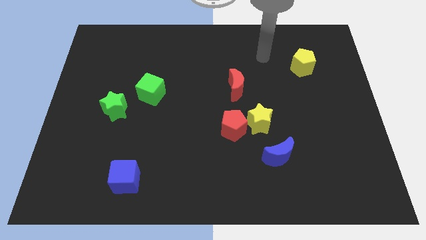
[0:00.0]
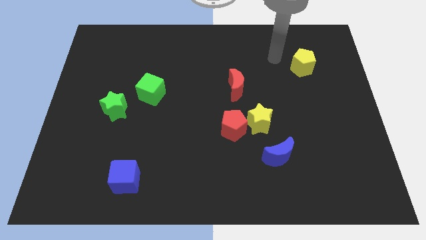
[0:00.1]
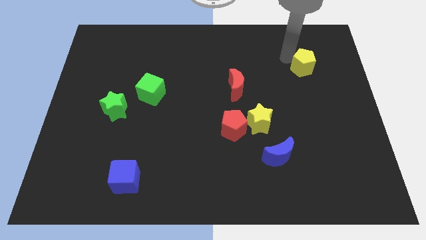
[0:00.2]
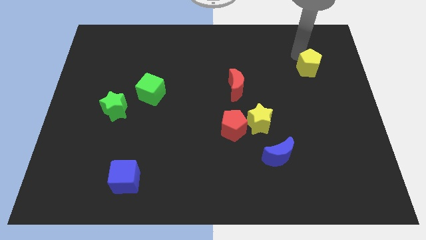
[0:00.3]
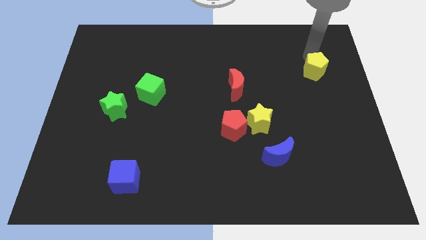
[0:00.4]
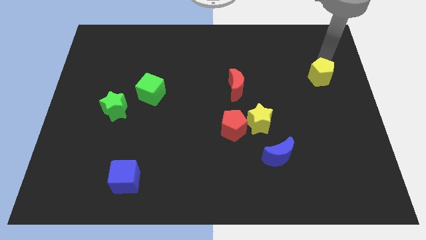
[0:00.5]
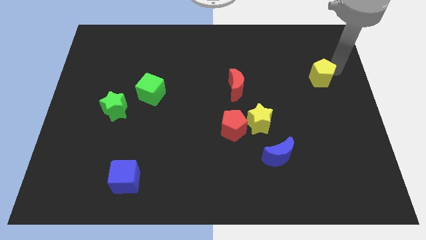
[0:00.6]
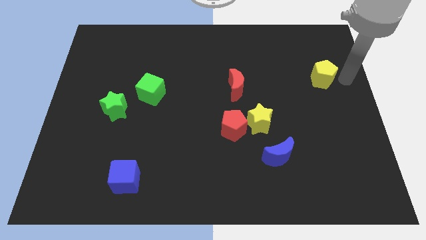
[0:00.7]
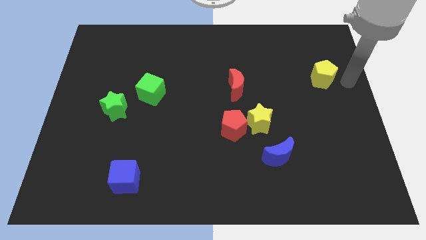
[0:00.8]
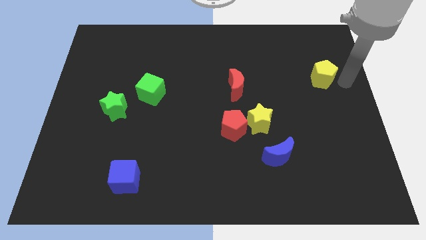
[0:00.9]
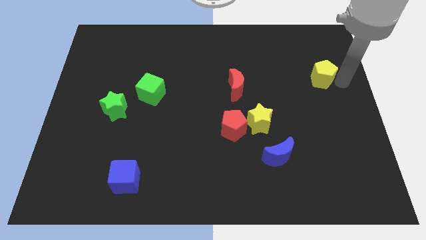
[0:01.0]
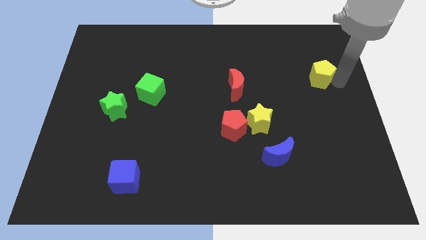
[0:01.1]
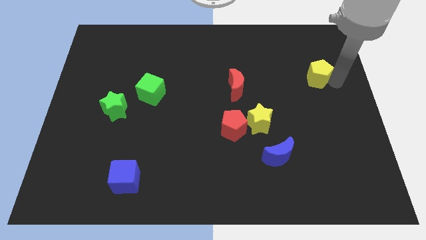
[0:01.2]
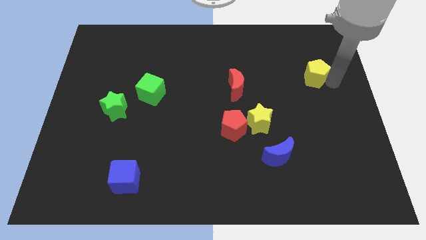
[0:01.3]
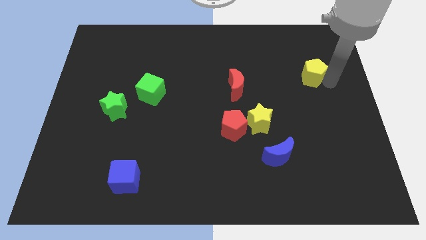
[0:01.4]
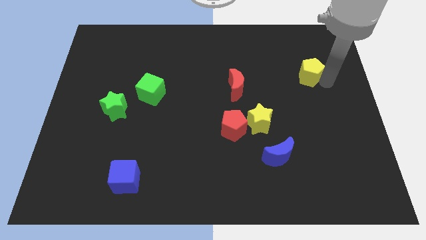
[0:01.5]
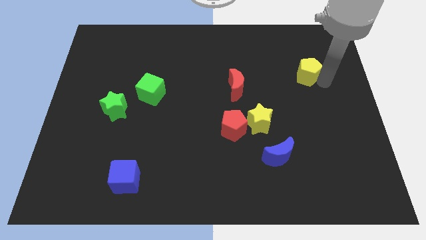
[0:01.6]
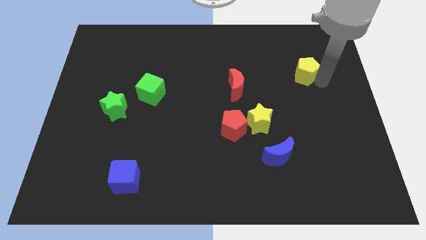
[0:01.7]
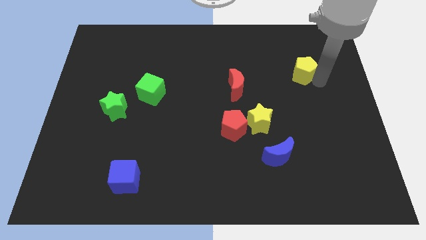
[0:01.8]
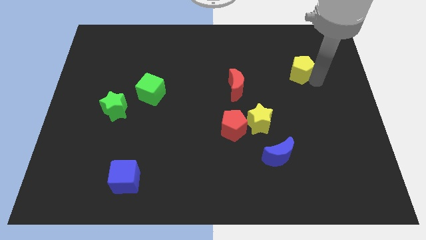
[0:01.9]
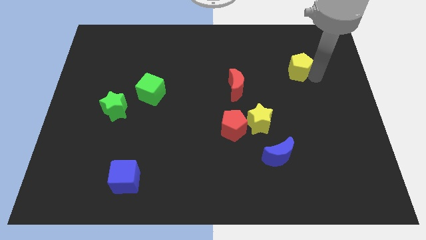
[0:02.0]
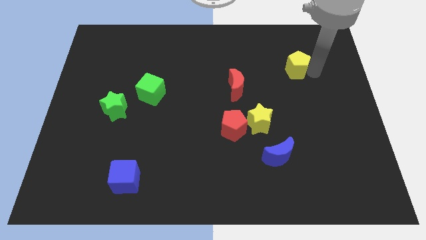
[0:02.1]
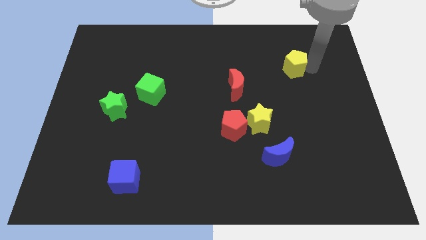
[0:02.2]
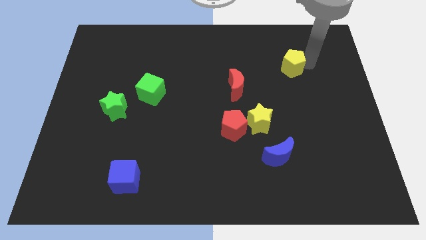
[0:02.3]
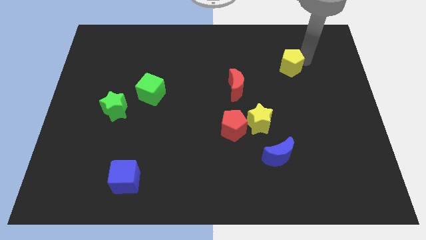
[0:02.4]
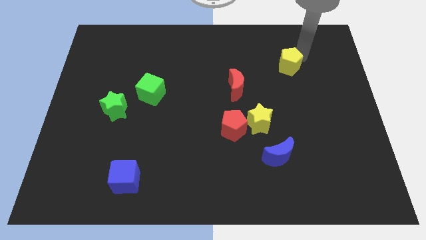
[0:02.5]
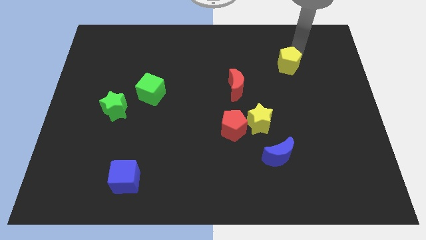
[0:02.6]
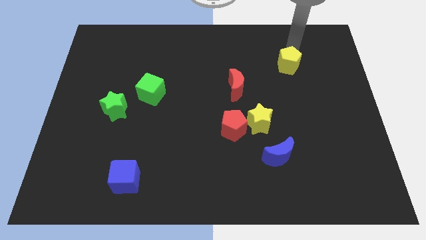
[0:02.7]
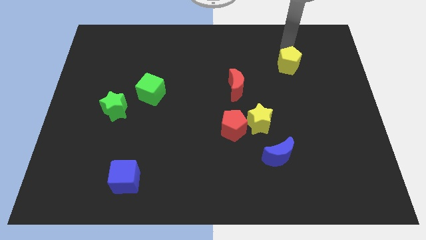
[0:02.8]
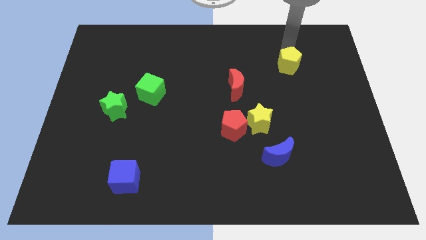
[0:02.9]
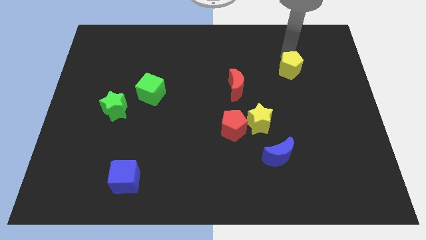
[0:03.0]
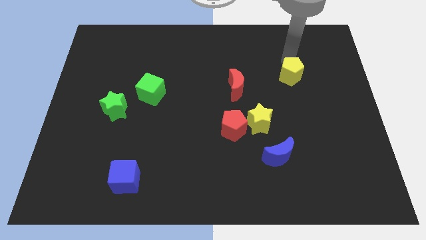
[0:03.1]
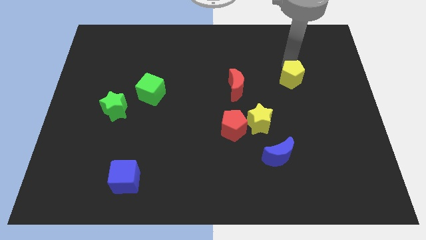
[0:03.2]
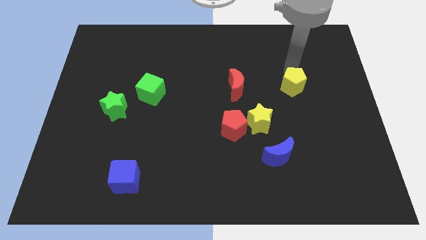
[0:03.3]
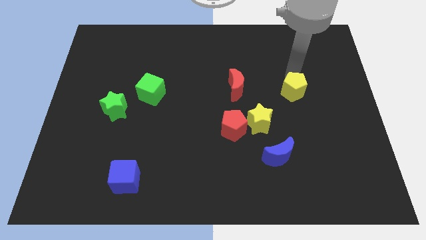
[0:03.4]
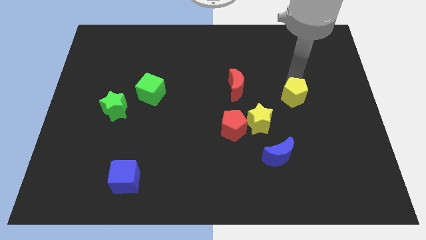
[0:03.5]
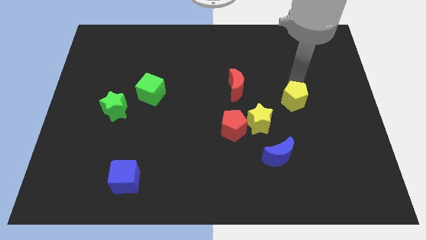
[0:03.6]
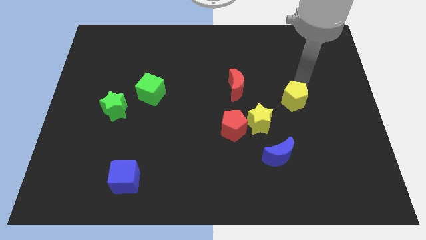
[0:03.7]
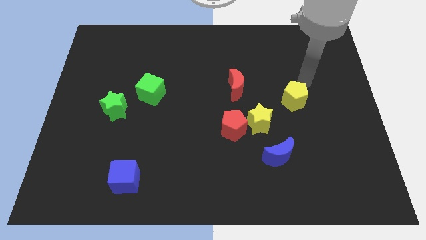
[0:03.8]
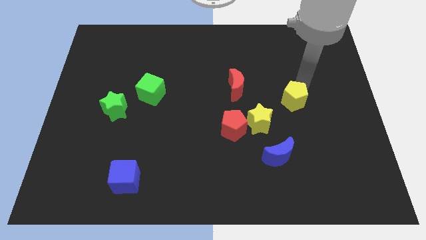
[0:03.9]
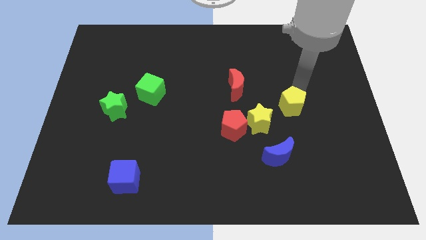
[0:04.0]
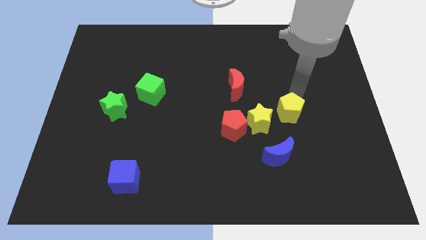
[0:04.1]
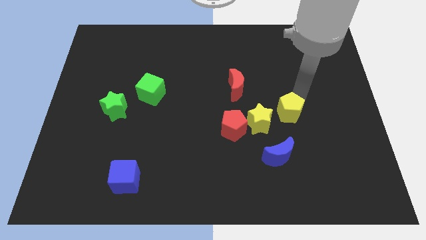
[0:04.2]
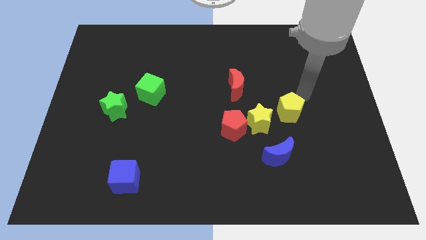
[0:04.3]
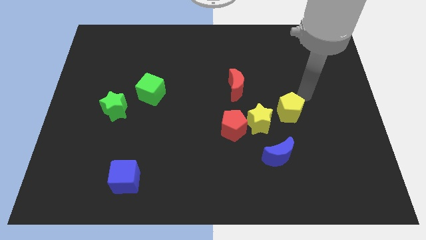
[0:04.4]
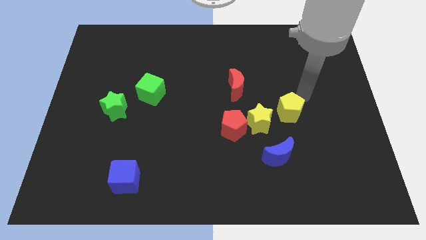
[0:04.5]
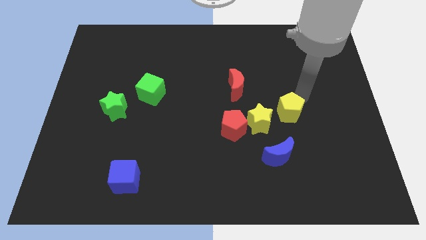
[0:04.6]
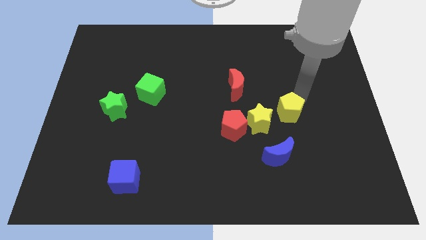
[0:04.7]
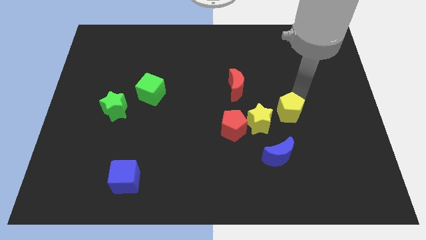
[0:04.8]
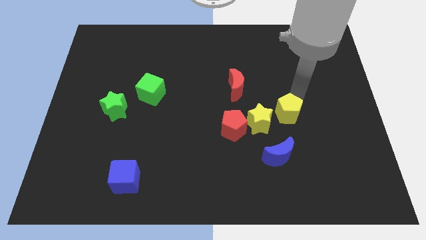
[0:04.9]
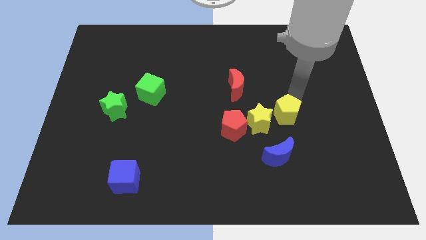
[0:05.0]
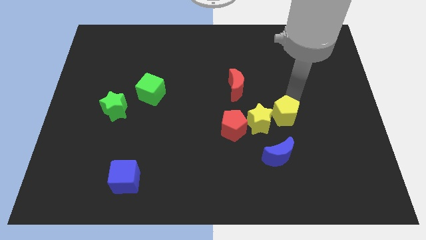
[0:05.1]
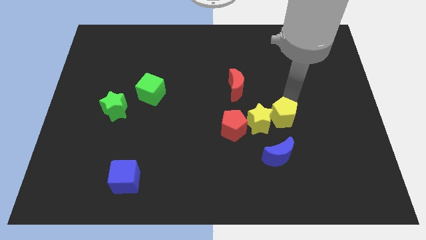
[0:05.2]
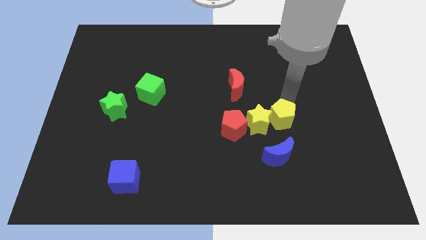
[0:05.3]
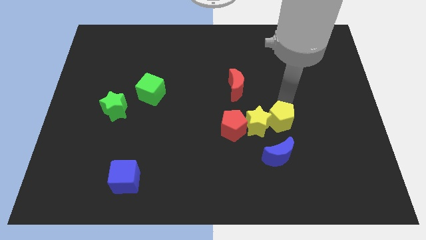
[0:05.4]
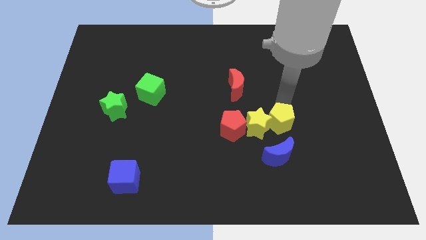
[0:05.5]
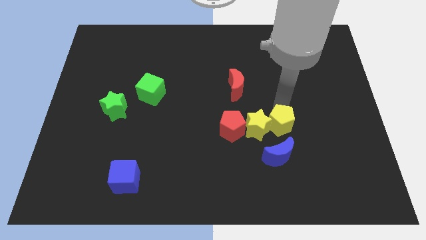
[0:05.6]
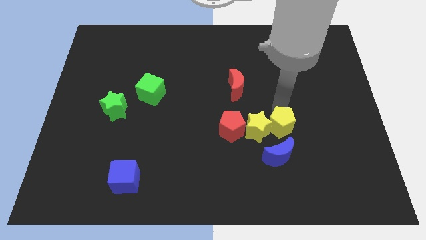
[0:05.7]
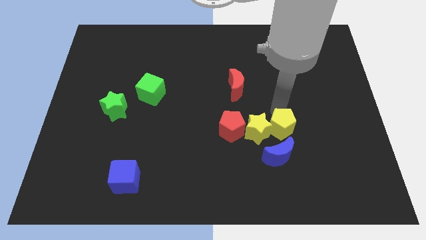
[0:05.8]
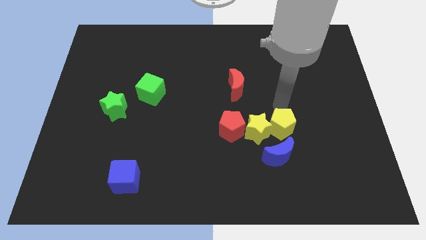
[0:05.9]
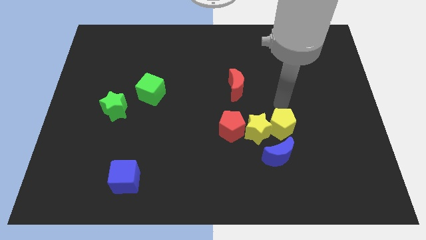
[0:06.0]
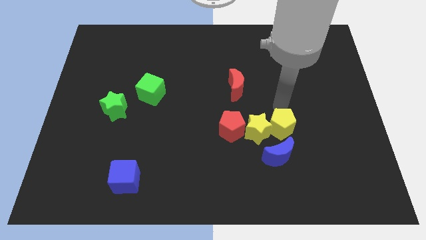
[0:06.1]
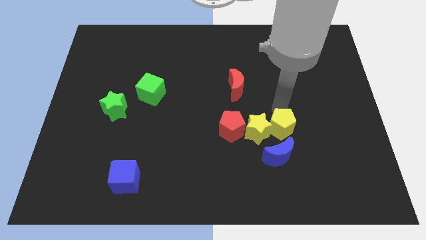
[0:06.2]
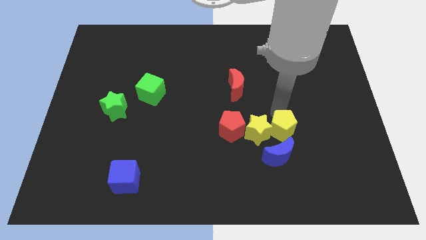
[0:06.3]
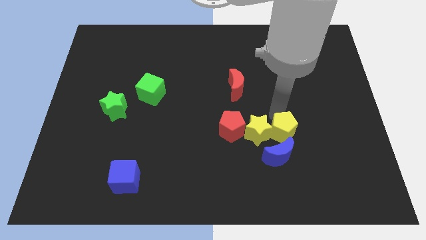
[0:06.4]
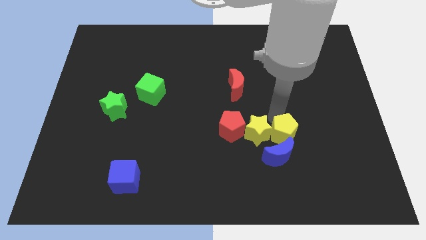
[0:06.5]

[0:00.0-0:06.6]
slide the yellow pentagon close to the blue moon

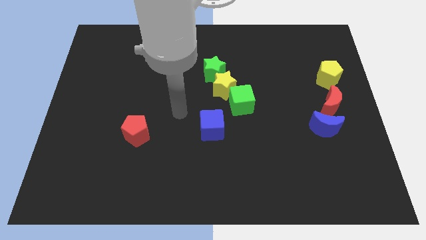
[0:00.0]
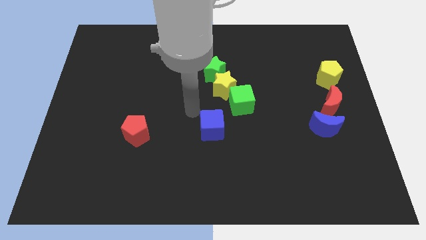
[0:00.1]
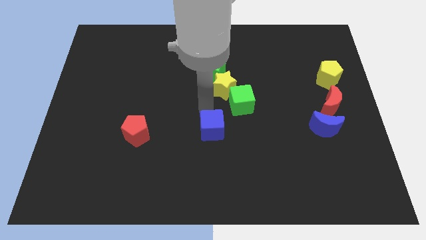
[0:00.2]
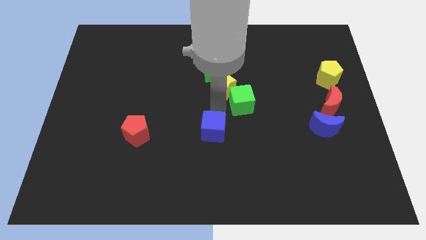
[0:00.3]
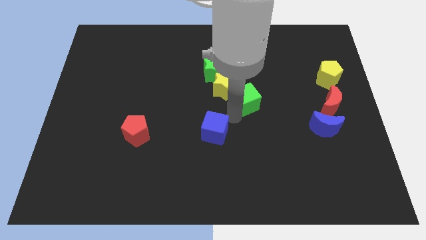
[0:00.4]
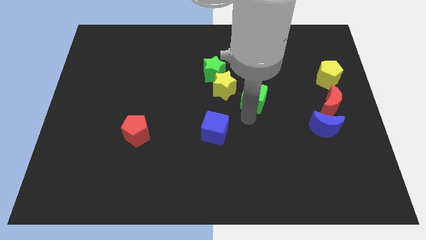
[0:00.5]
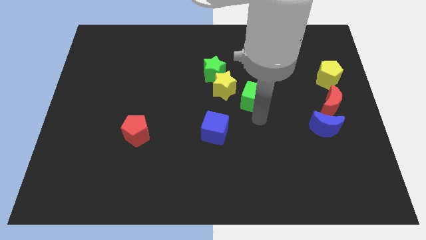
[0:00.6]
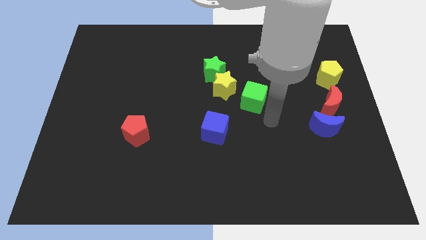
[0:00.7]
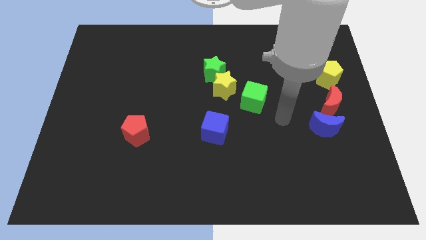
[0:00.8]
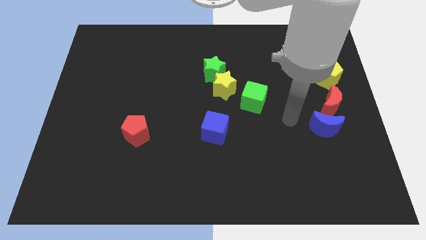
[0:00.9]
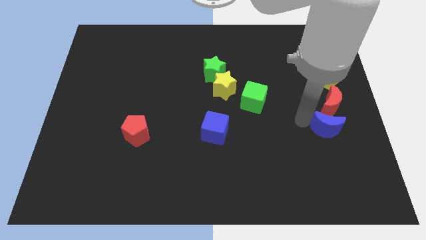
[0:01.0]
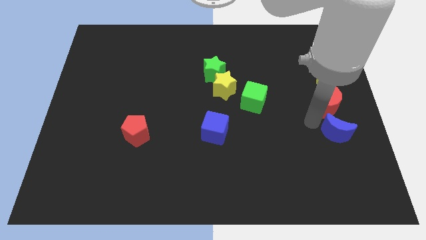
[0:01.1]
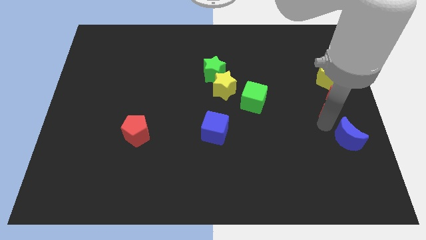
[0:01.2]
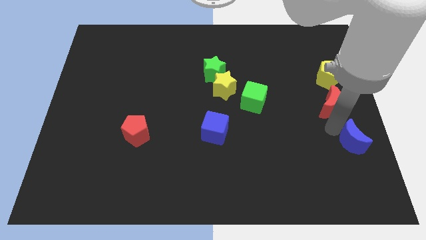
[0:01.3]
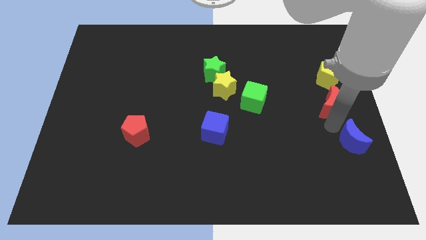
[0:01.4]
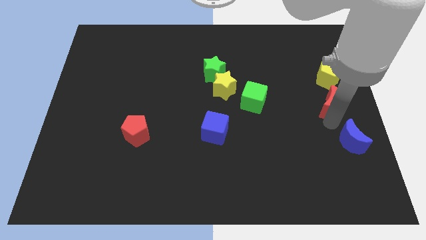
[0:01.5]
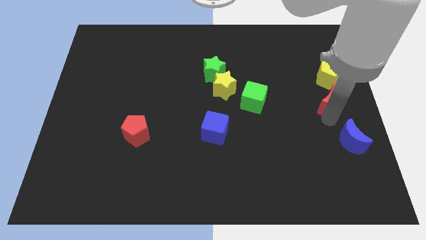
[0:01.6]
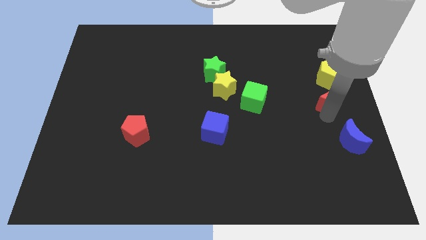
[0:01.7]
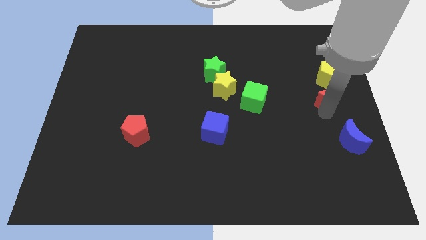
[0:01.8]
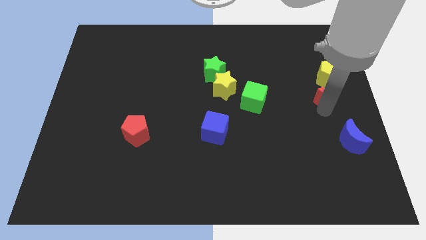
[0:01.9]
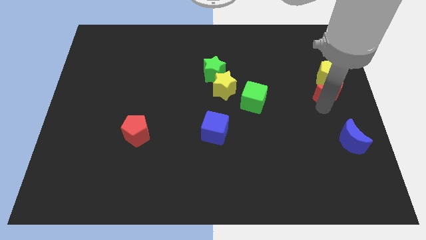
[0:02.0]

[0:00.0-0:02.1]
put the red moon to the yellow pentagon
